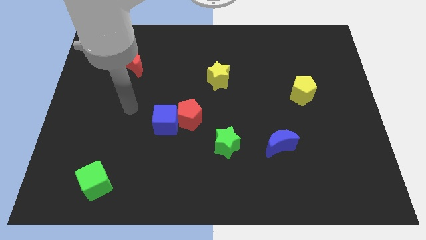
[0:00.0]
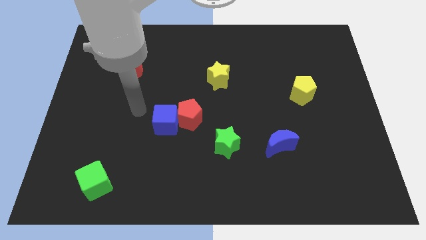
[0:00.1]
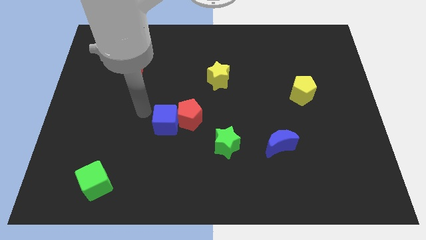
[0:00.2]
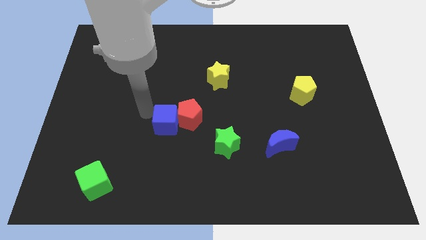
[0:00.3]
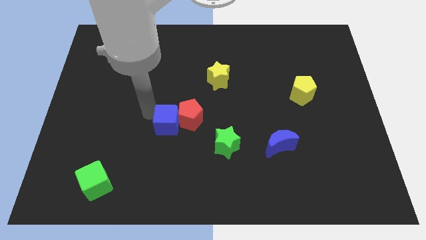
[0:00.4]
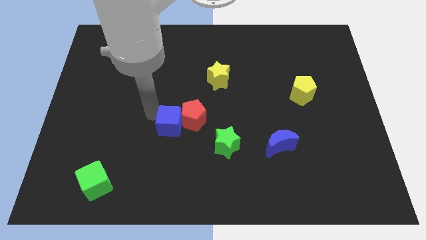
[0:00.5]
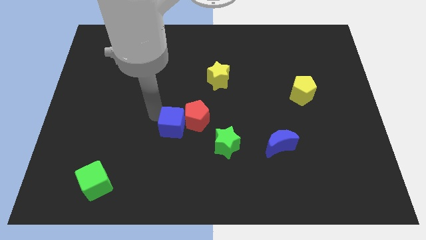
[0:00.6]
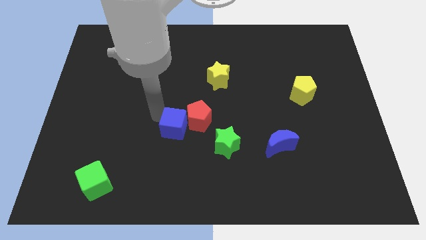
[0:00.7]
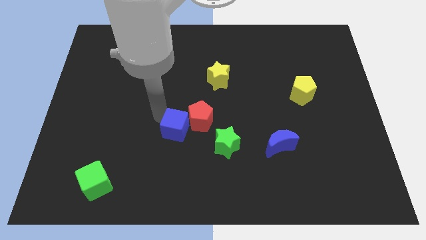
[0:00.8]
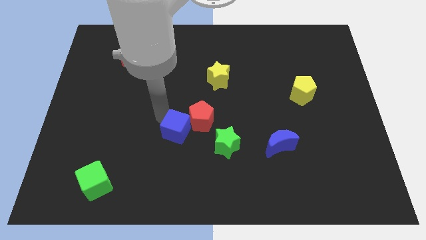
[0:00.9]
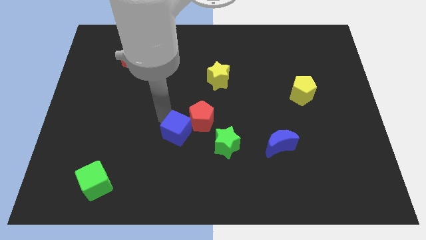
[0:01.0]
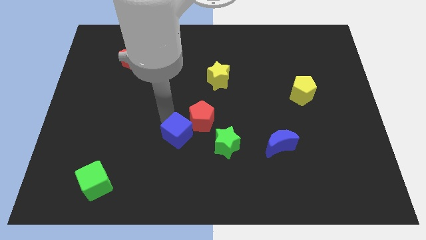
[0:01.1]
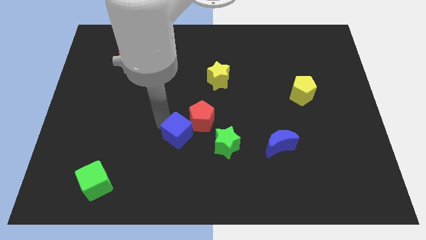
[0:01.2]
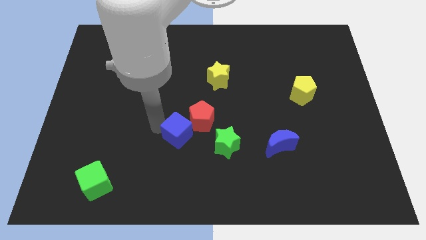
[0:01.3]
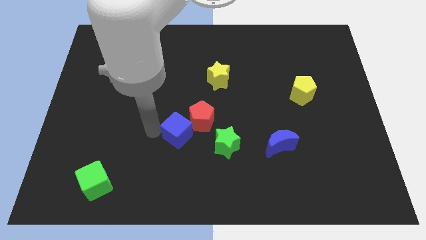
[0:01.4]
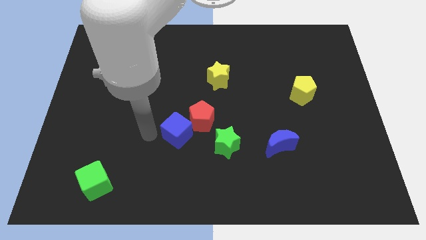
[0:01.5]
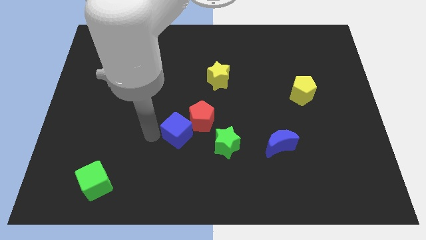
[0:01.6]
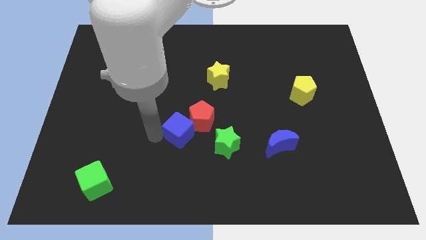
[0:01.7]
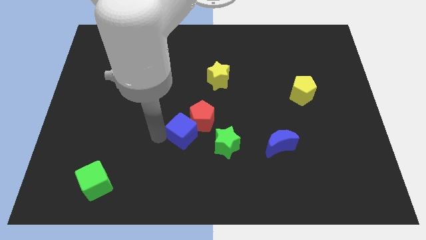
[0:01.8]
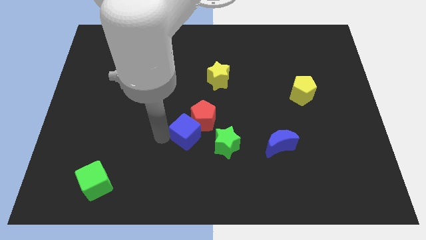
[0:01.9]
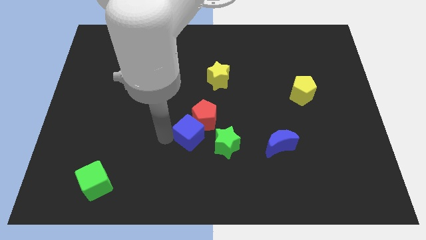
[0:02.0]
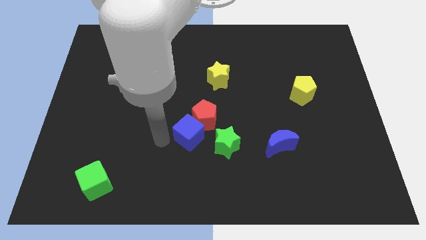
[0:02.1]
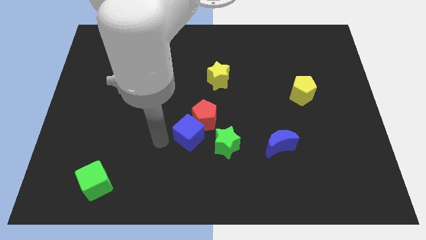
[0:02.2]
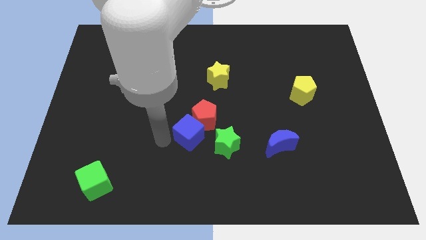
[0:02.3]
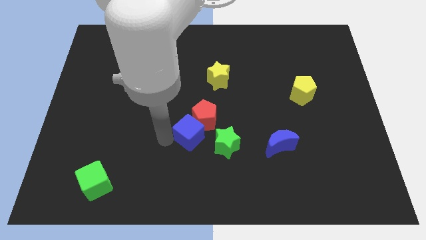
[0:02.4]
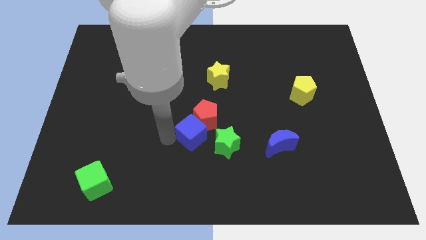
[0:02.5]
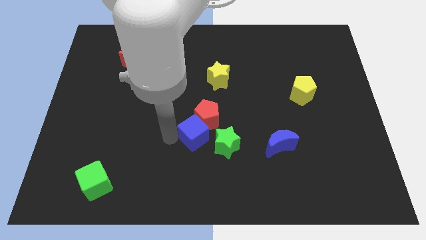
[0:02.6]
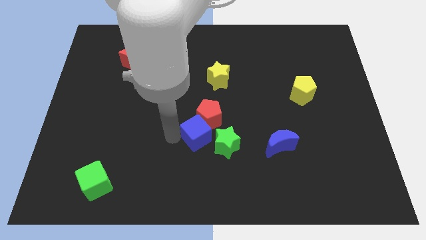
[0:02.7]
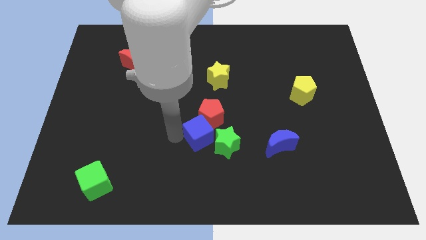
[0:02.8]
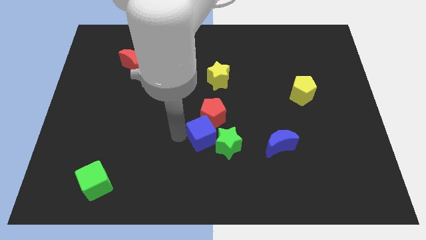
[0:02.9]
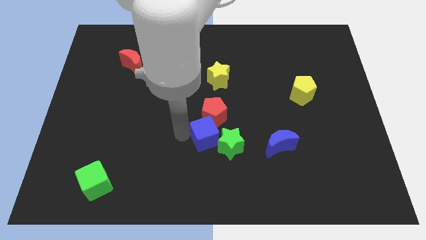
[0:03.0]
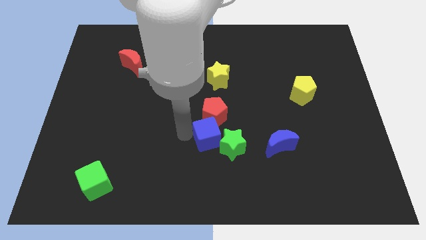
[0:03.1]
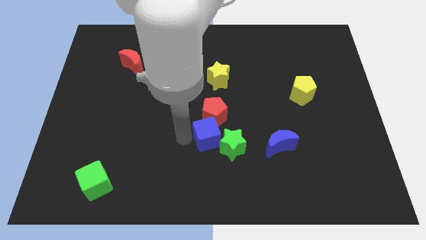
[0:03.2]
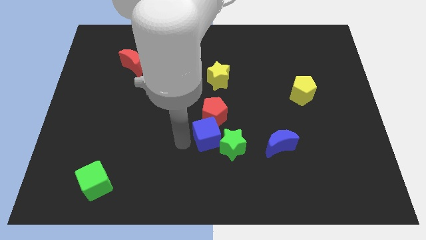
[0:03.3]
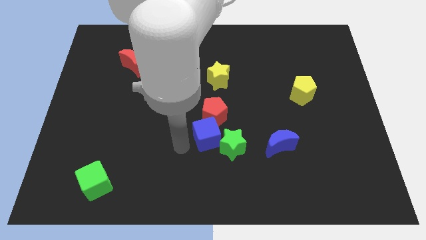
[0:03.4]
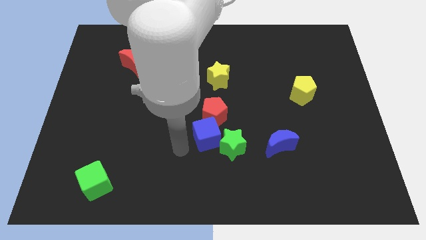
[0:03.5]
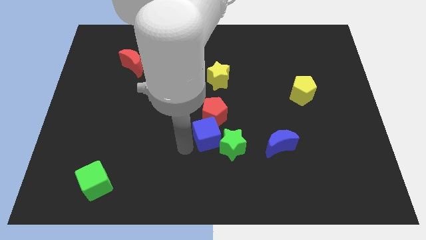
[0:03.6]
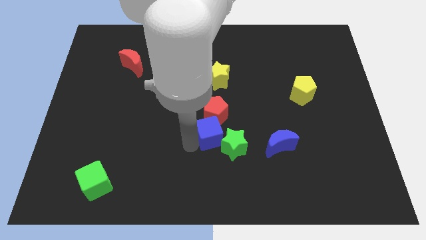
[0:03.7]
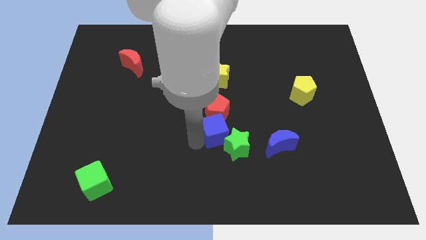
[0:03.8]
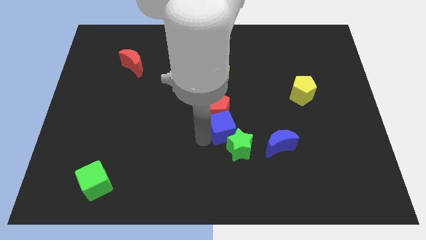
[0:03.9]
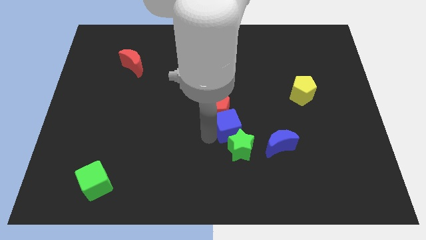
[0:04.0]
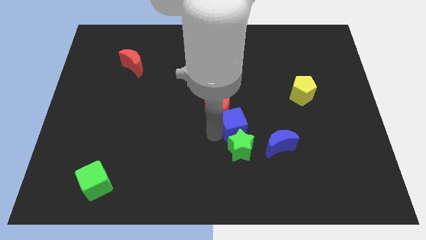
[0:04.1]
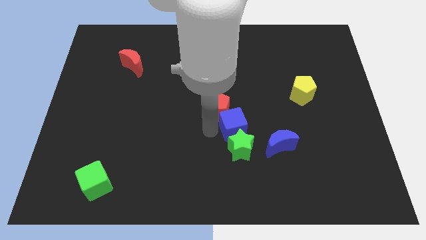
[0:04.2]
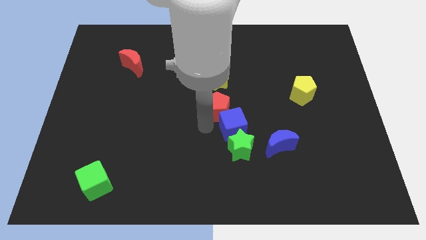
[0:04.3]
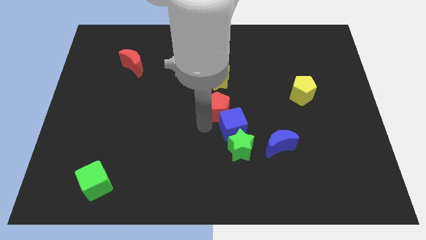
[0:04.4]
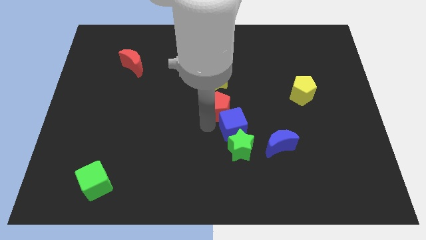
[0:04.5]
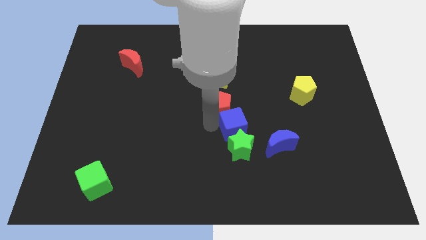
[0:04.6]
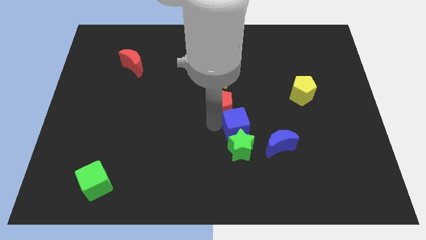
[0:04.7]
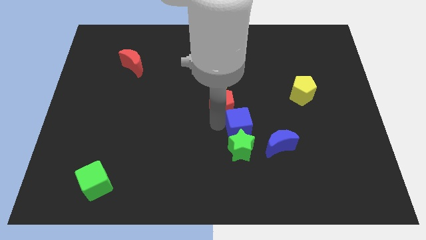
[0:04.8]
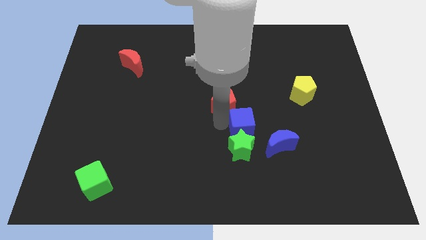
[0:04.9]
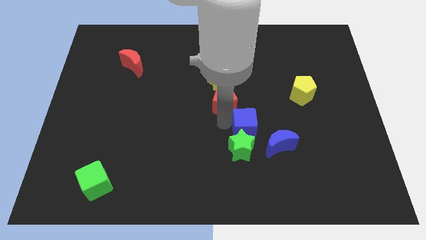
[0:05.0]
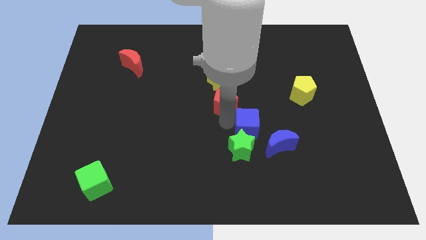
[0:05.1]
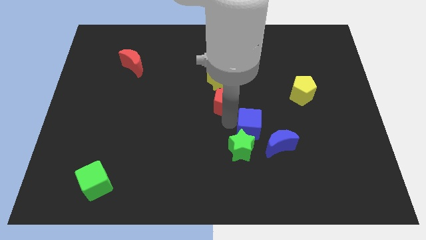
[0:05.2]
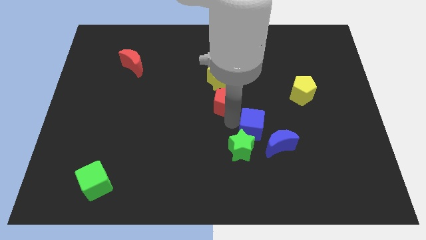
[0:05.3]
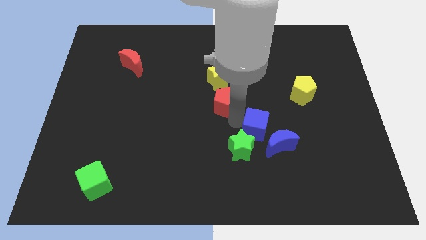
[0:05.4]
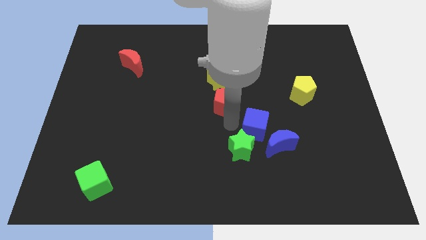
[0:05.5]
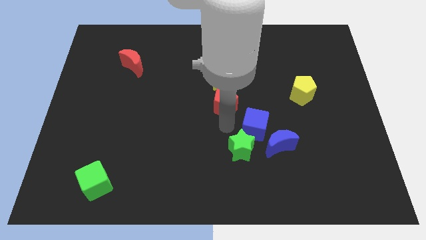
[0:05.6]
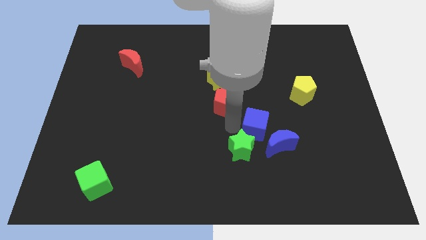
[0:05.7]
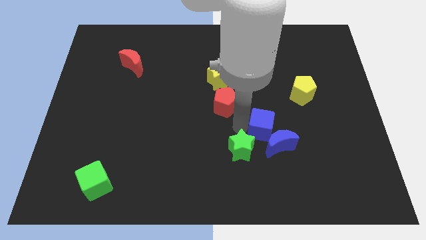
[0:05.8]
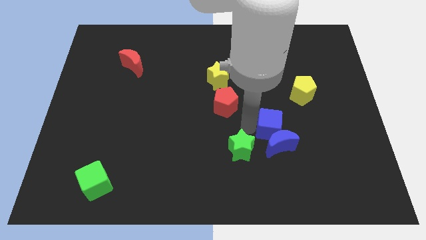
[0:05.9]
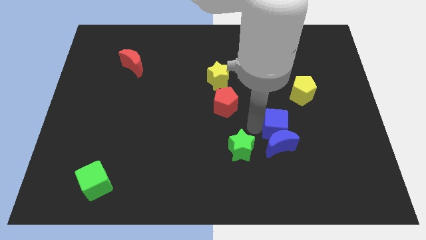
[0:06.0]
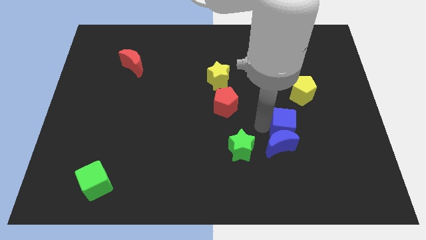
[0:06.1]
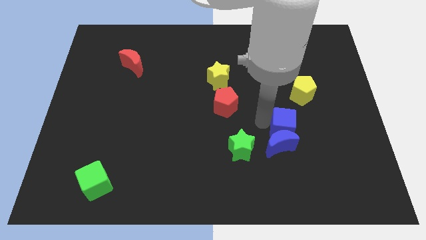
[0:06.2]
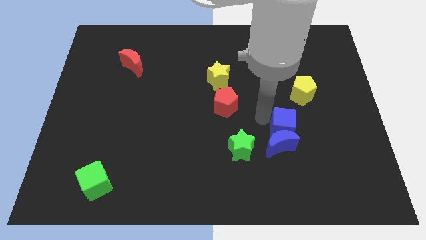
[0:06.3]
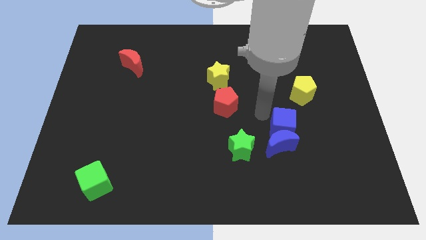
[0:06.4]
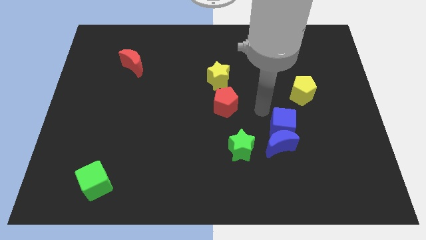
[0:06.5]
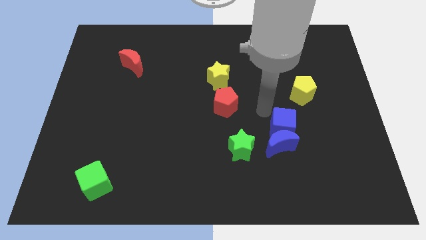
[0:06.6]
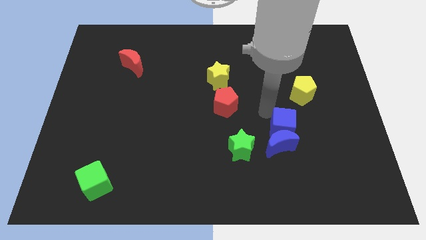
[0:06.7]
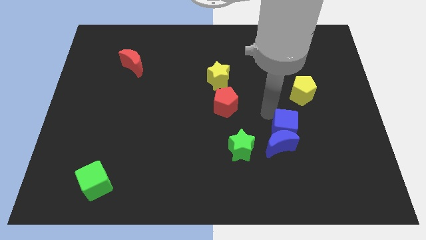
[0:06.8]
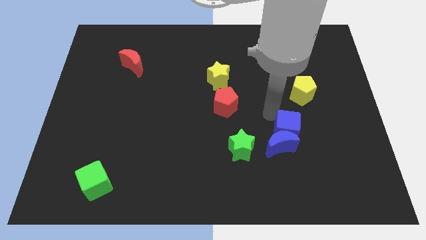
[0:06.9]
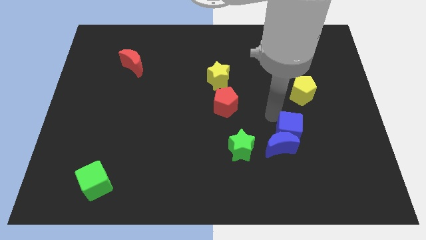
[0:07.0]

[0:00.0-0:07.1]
put the blue cube just right of the blue moon
